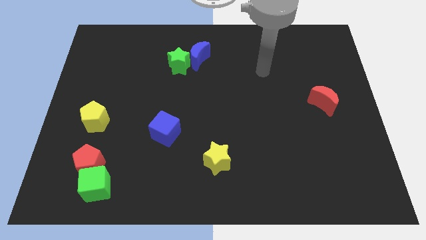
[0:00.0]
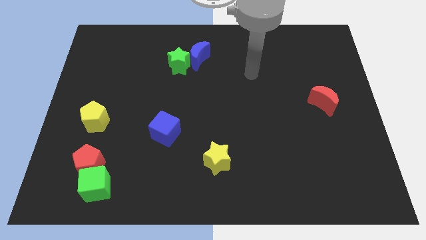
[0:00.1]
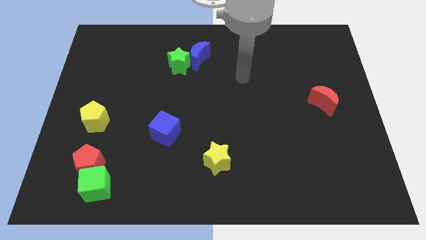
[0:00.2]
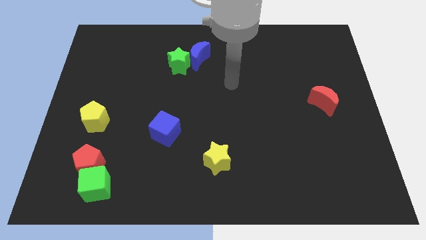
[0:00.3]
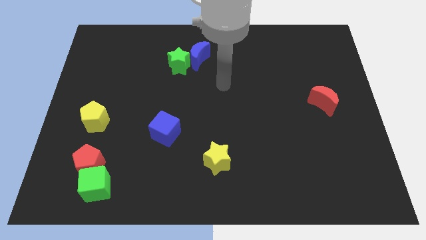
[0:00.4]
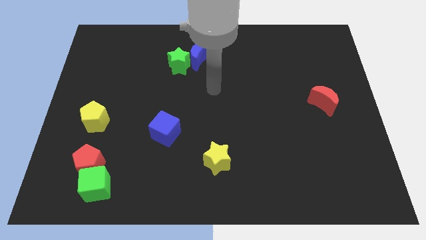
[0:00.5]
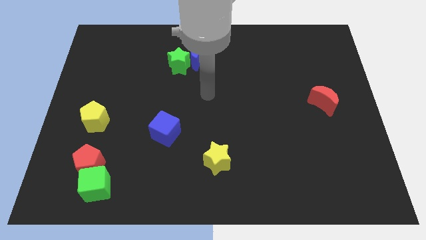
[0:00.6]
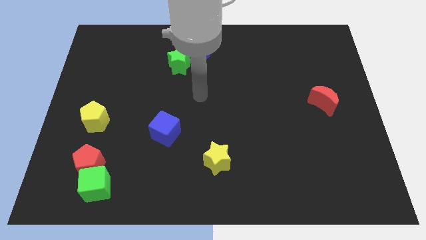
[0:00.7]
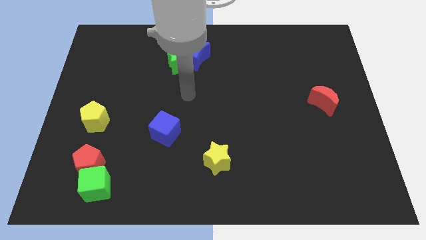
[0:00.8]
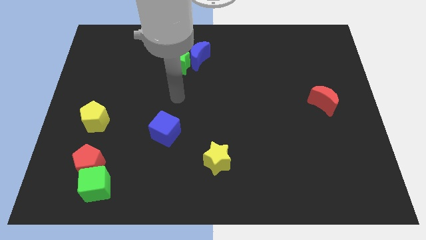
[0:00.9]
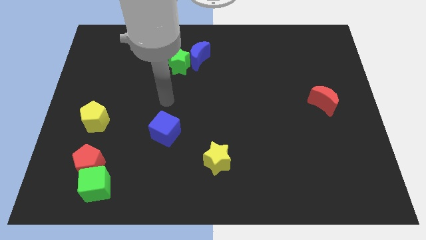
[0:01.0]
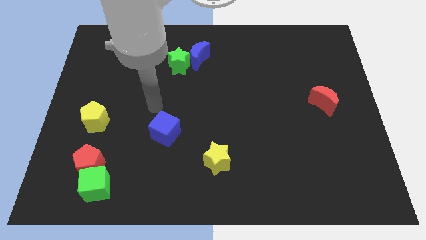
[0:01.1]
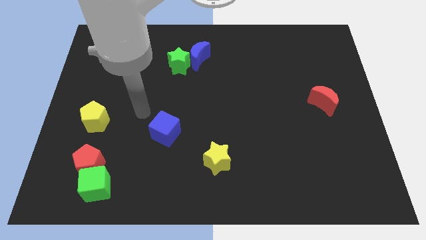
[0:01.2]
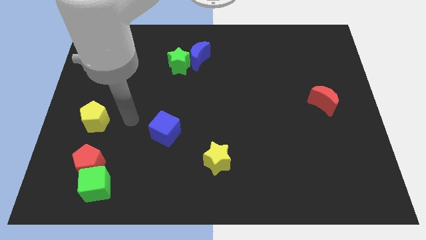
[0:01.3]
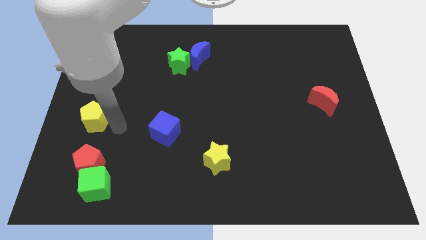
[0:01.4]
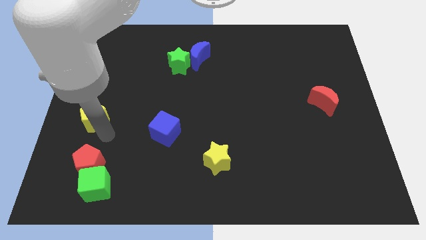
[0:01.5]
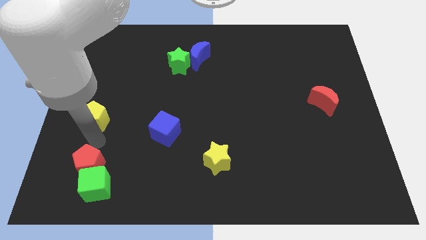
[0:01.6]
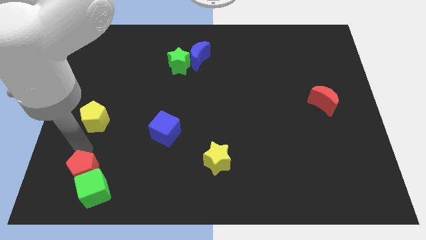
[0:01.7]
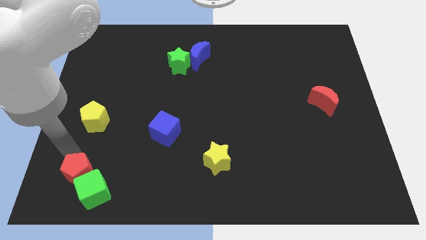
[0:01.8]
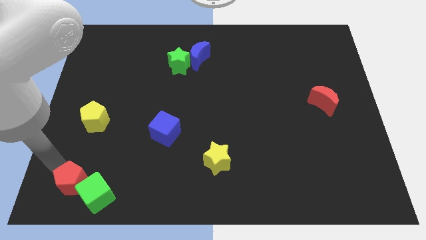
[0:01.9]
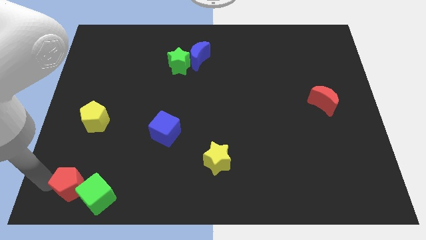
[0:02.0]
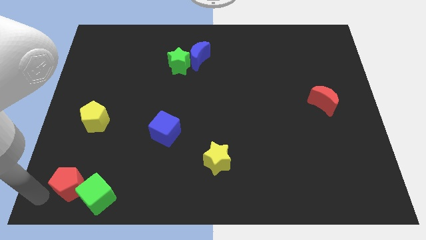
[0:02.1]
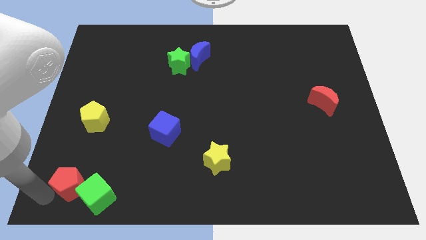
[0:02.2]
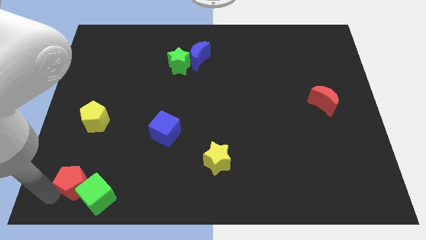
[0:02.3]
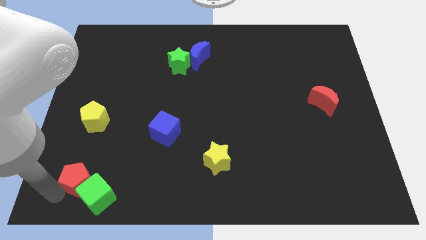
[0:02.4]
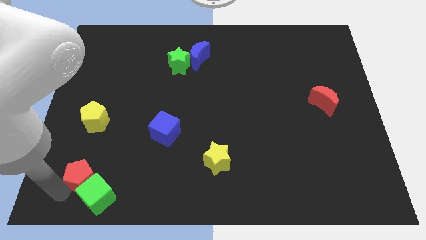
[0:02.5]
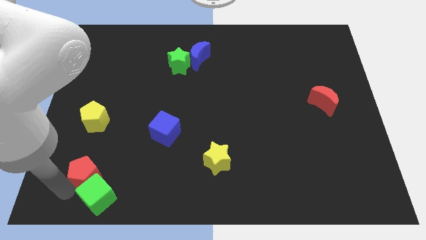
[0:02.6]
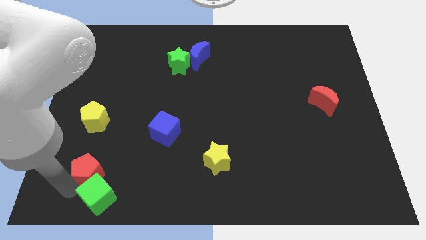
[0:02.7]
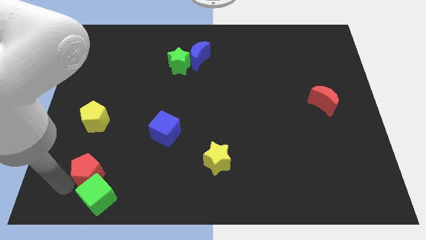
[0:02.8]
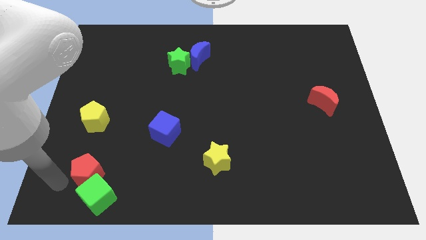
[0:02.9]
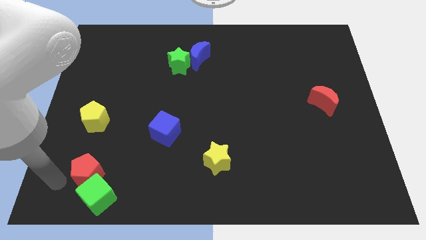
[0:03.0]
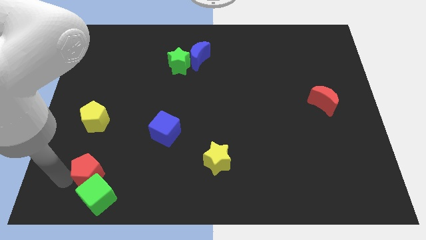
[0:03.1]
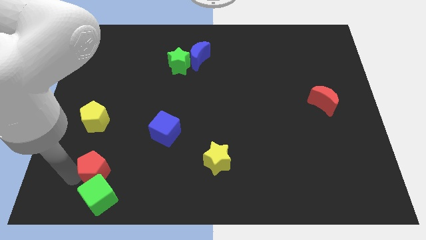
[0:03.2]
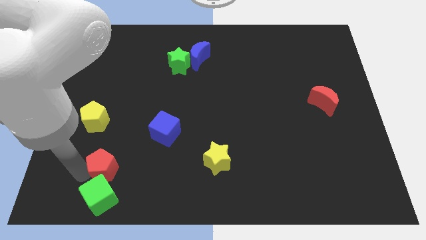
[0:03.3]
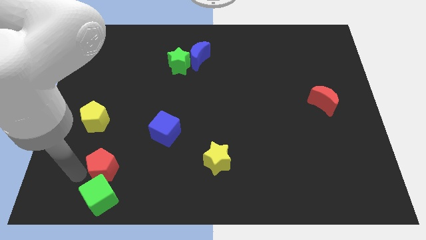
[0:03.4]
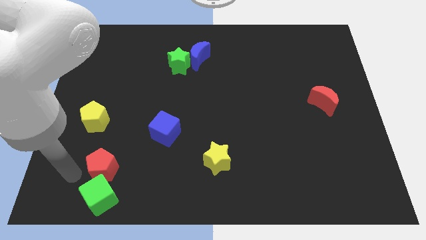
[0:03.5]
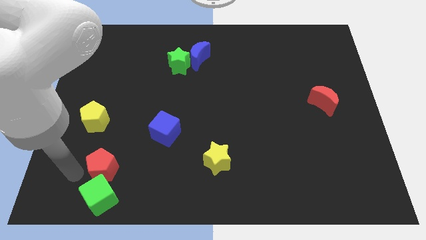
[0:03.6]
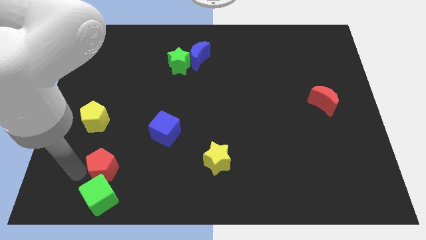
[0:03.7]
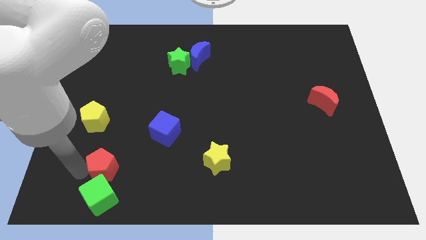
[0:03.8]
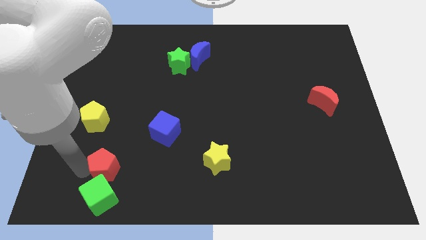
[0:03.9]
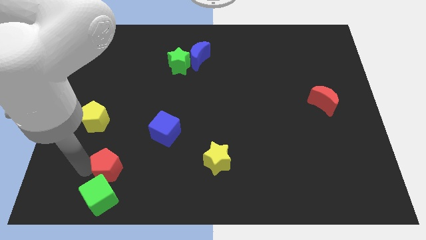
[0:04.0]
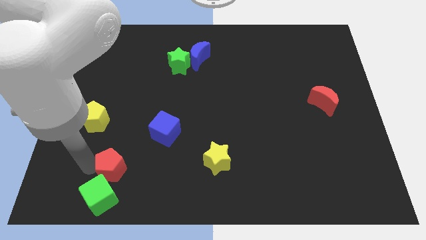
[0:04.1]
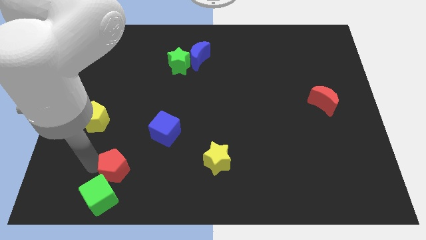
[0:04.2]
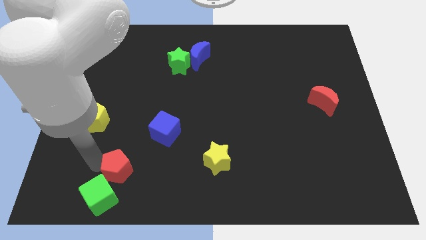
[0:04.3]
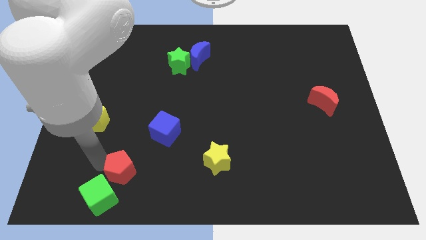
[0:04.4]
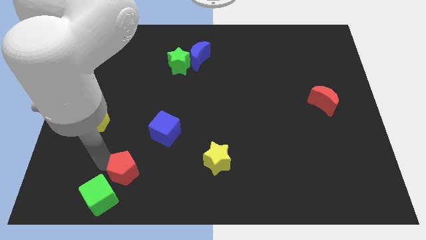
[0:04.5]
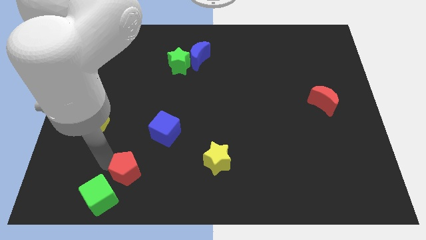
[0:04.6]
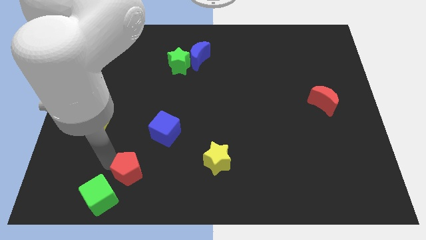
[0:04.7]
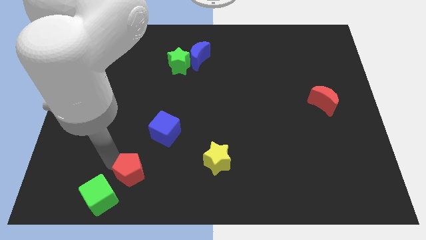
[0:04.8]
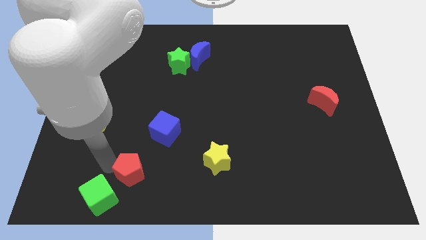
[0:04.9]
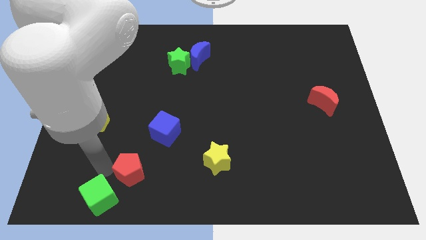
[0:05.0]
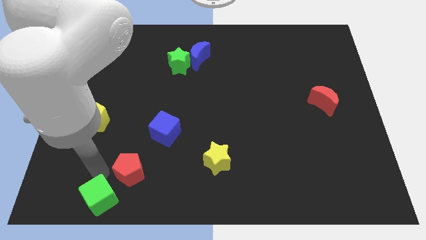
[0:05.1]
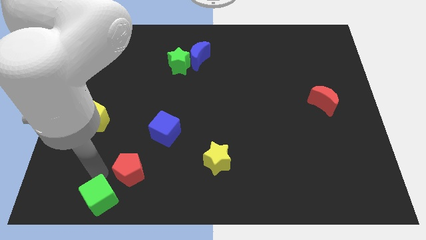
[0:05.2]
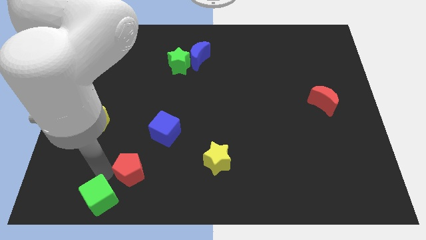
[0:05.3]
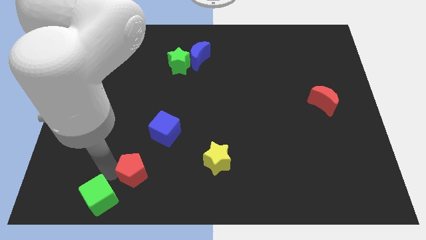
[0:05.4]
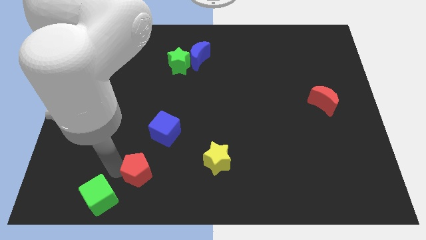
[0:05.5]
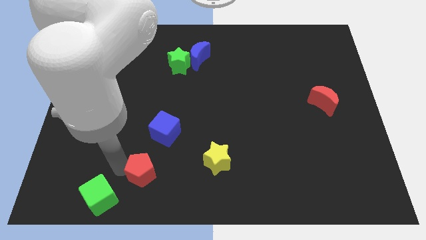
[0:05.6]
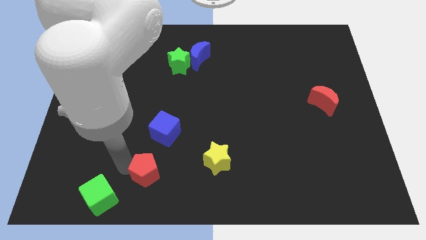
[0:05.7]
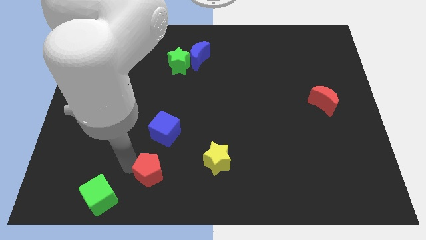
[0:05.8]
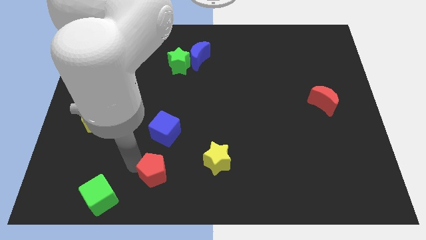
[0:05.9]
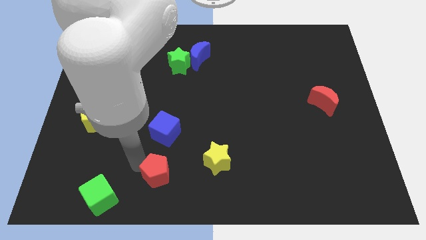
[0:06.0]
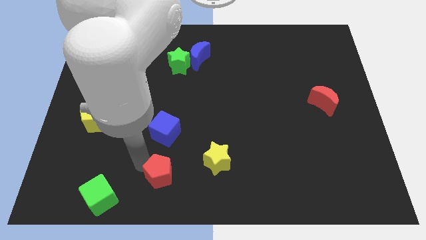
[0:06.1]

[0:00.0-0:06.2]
put the red pentagon to the bottom
